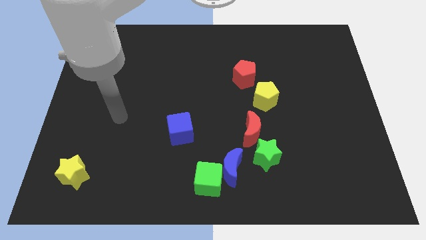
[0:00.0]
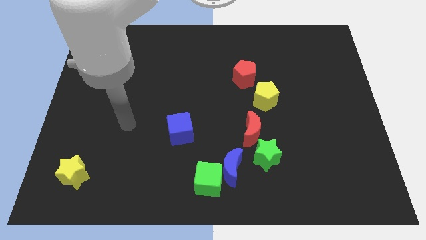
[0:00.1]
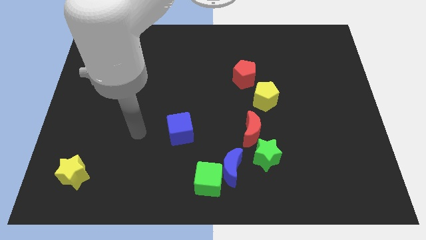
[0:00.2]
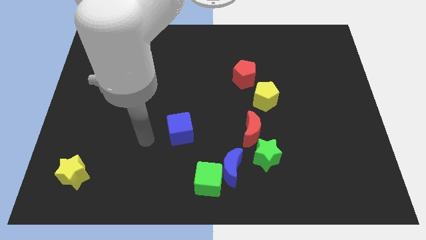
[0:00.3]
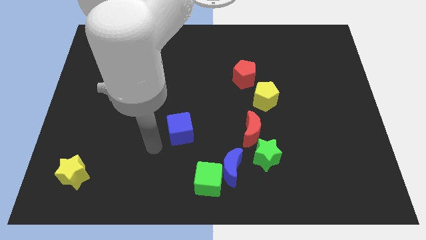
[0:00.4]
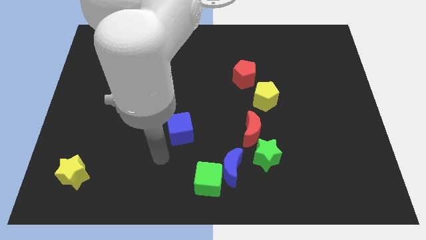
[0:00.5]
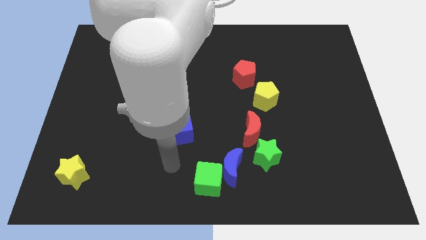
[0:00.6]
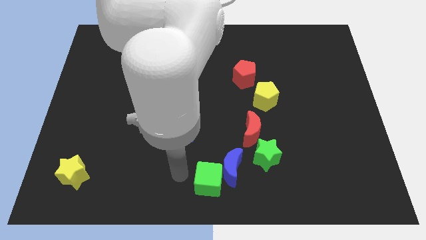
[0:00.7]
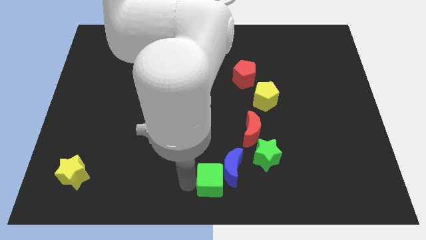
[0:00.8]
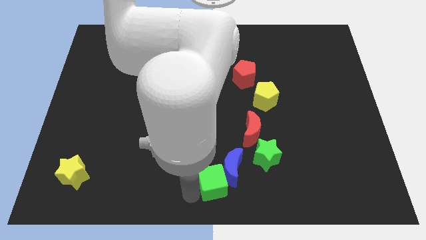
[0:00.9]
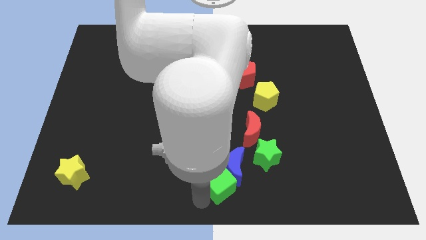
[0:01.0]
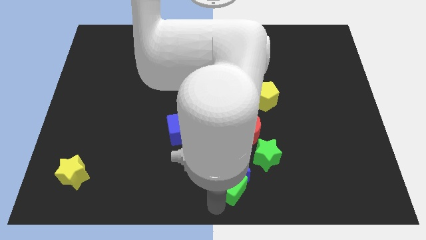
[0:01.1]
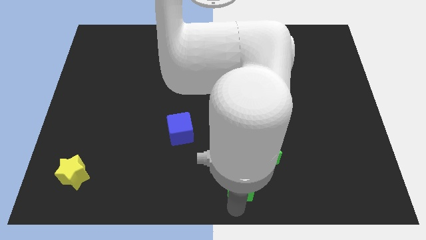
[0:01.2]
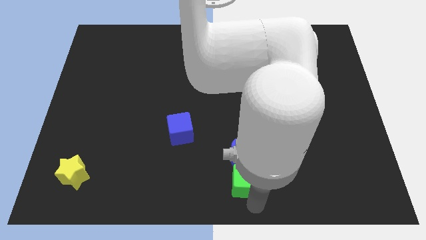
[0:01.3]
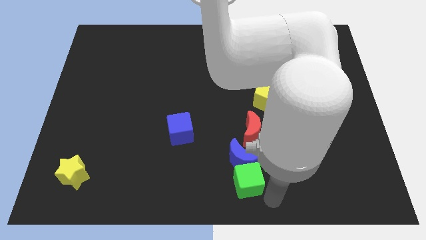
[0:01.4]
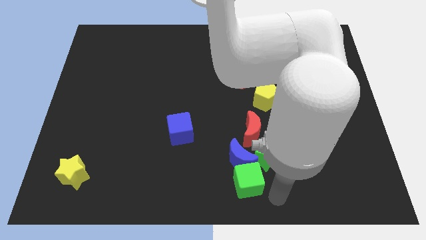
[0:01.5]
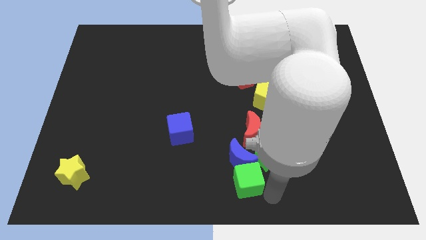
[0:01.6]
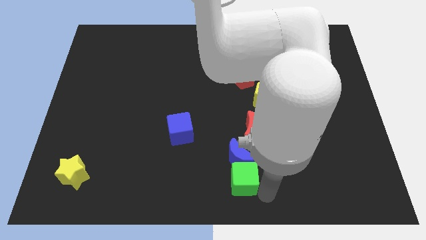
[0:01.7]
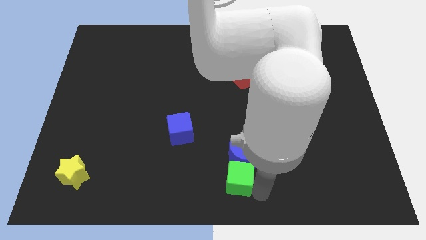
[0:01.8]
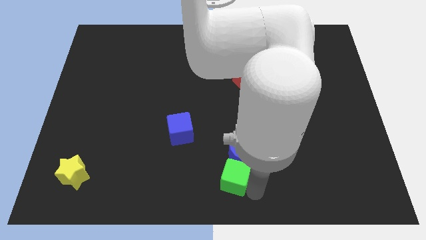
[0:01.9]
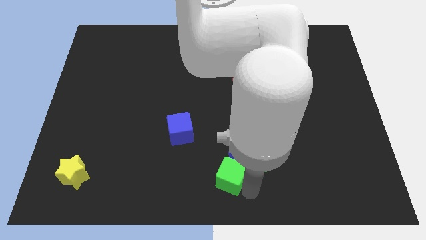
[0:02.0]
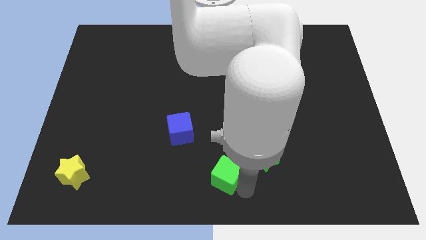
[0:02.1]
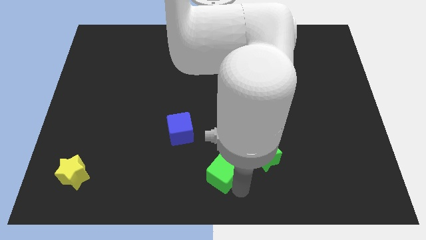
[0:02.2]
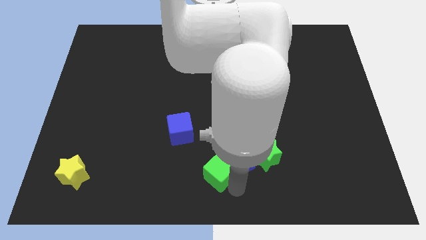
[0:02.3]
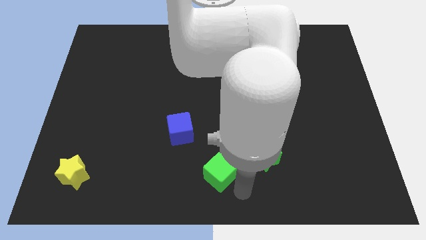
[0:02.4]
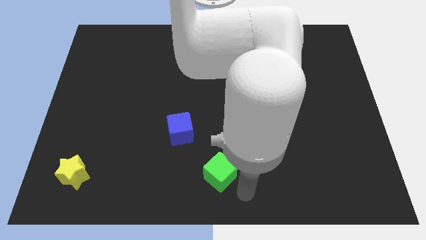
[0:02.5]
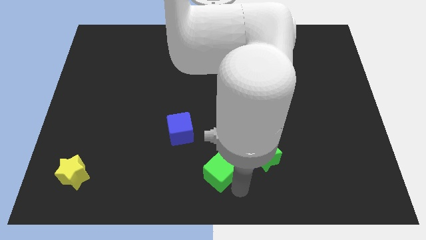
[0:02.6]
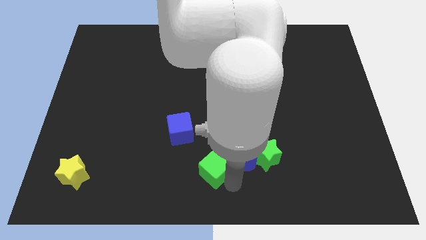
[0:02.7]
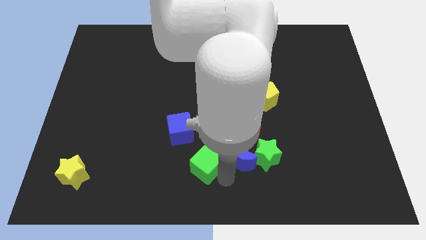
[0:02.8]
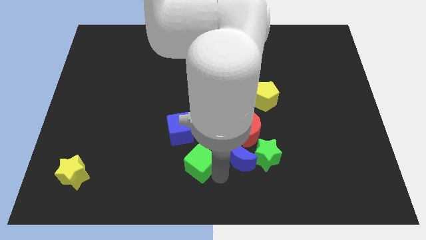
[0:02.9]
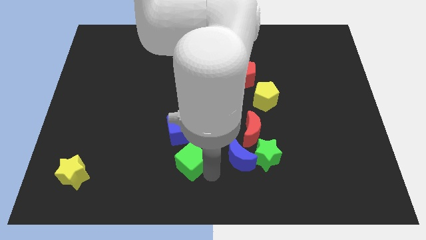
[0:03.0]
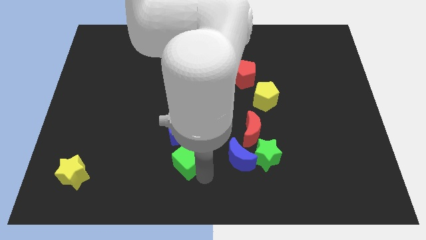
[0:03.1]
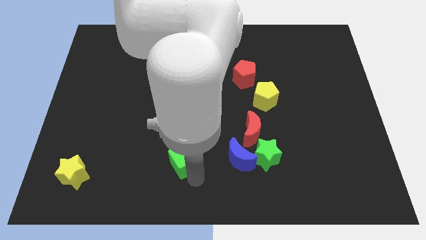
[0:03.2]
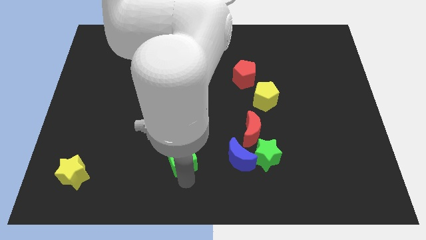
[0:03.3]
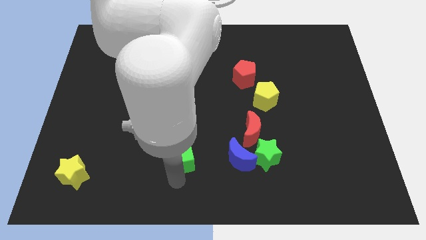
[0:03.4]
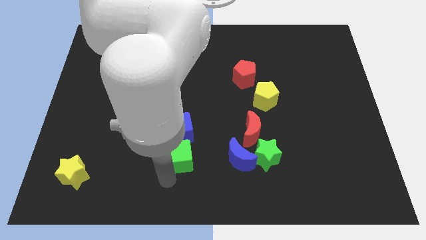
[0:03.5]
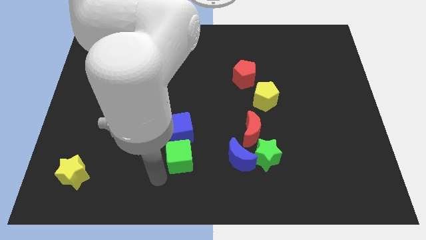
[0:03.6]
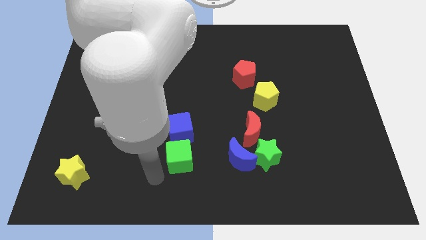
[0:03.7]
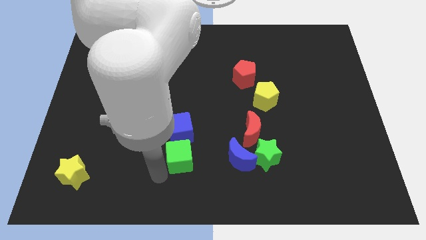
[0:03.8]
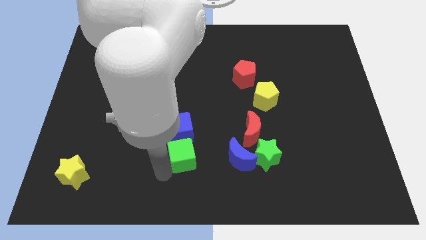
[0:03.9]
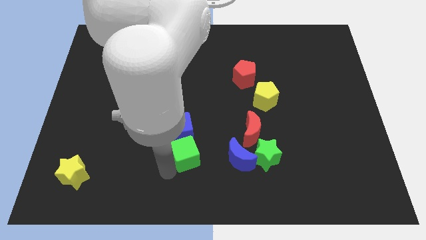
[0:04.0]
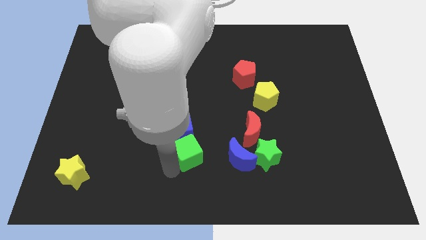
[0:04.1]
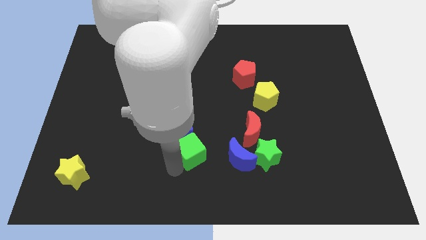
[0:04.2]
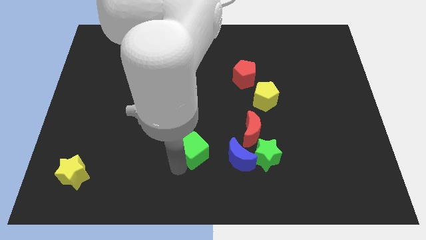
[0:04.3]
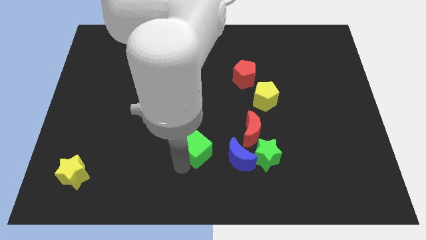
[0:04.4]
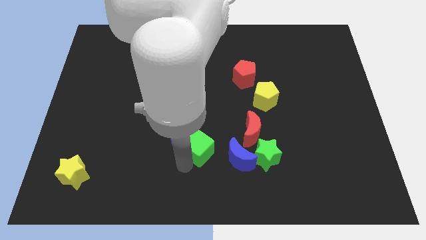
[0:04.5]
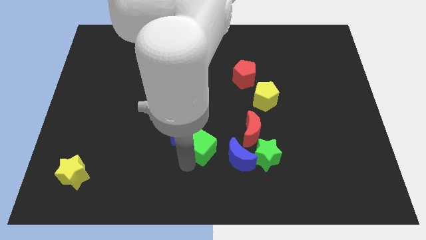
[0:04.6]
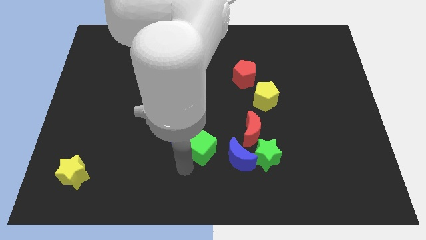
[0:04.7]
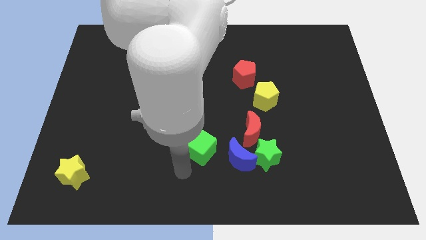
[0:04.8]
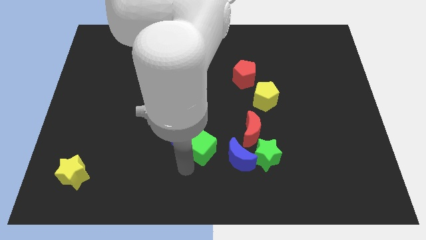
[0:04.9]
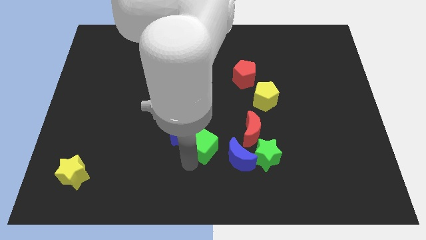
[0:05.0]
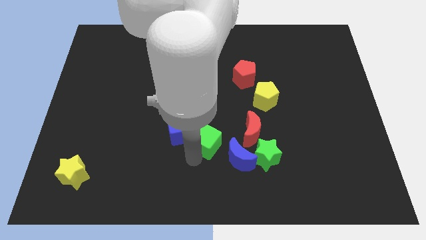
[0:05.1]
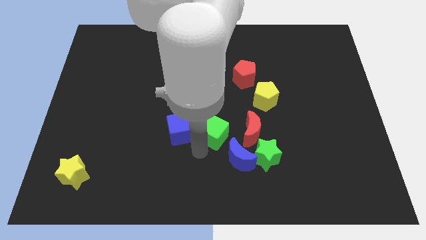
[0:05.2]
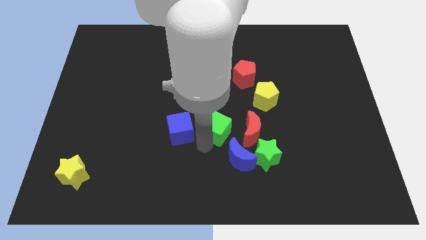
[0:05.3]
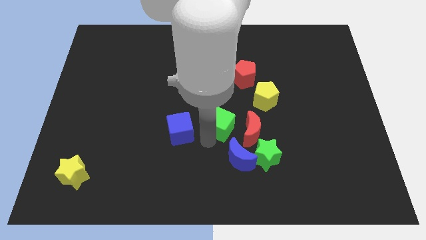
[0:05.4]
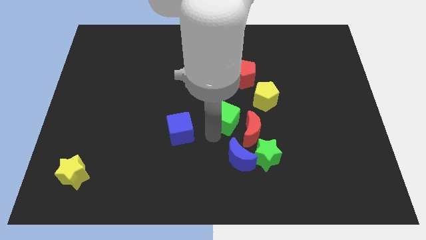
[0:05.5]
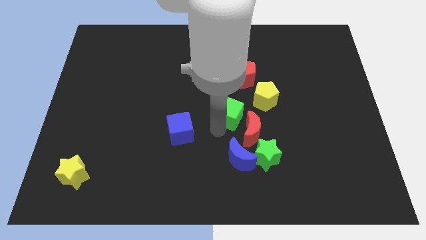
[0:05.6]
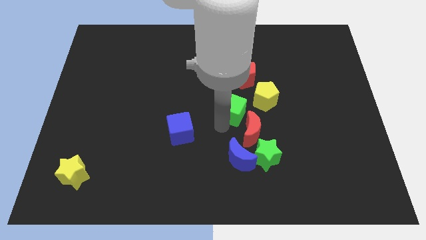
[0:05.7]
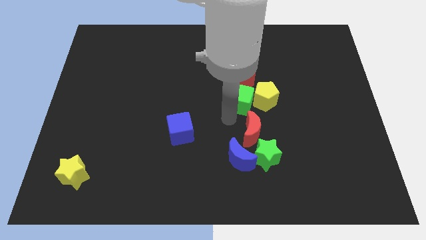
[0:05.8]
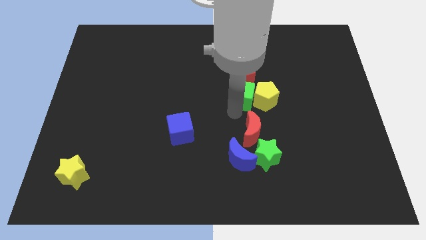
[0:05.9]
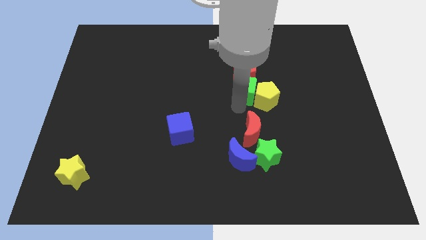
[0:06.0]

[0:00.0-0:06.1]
push the green cube towards the red pentagon

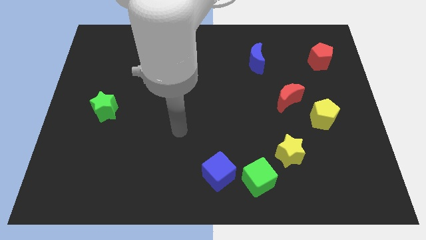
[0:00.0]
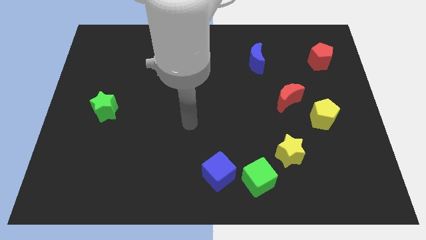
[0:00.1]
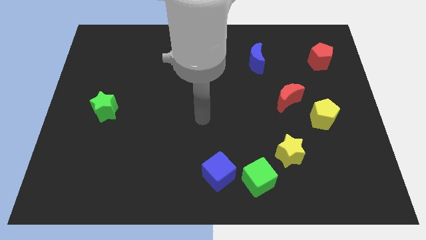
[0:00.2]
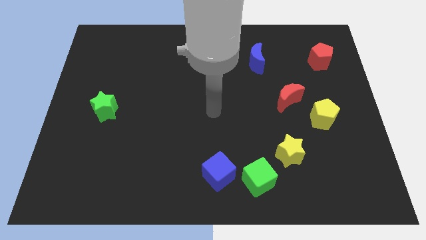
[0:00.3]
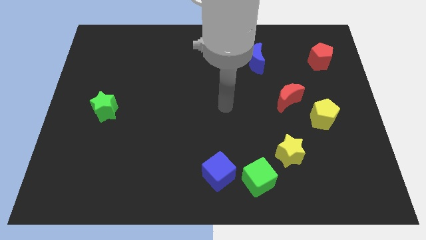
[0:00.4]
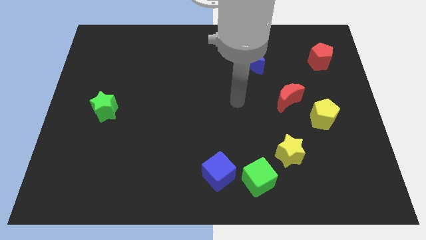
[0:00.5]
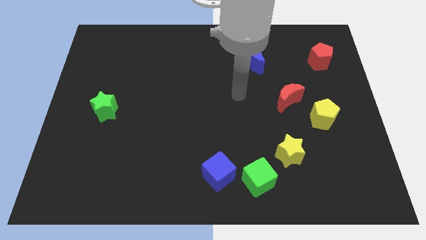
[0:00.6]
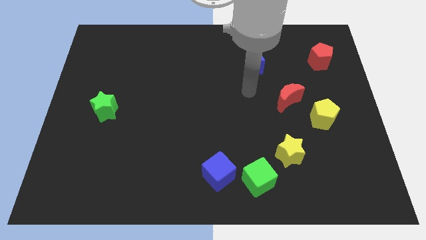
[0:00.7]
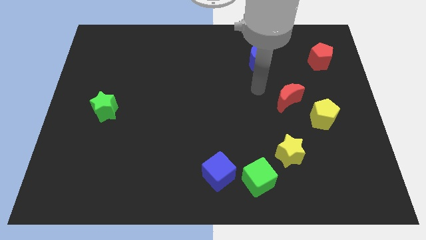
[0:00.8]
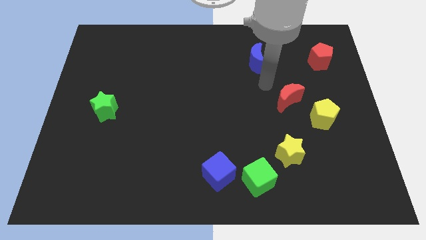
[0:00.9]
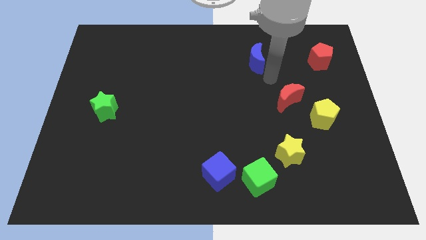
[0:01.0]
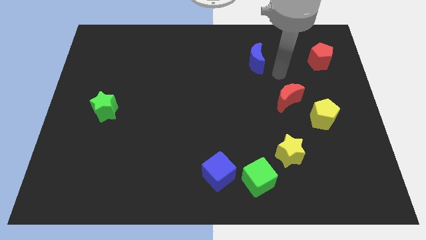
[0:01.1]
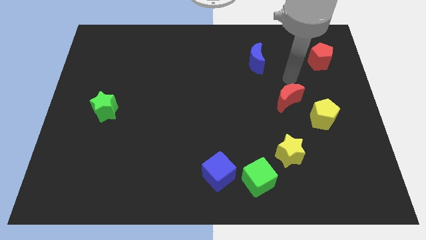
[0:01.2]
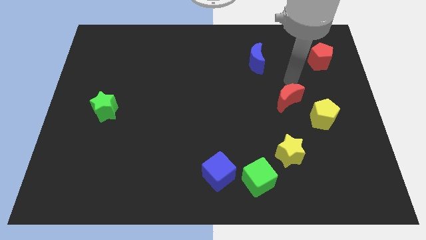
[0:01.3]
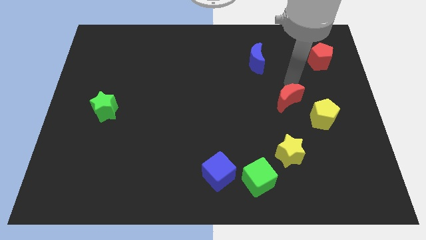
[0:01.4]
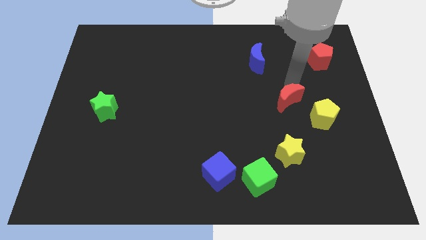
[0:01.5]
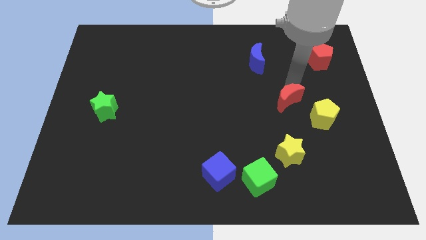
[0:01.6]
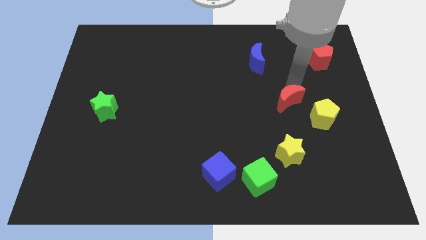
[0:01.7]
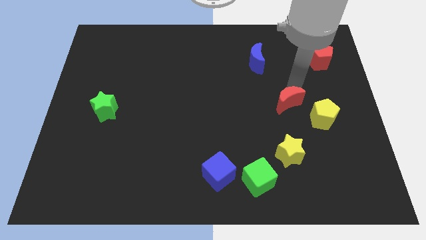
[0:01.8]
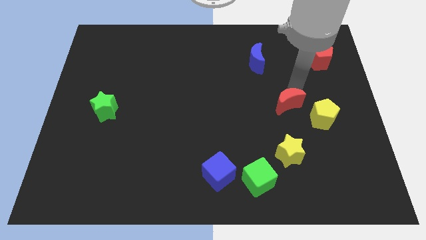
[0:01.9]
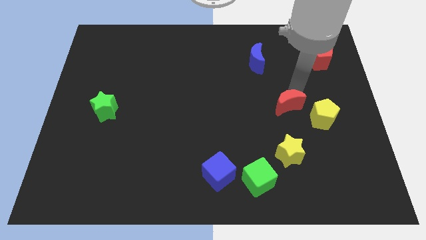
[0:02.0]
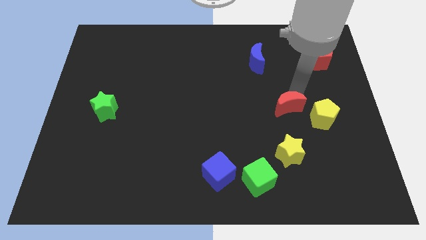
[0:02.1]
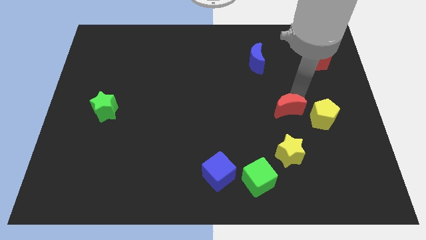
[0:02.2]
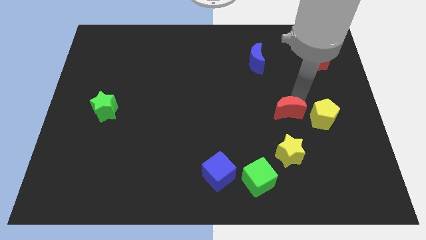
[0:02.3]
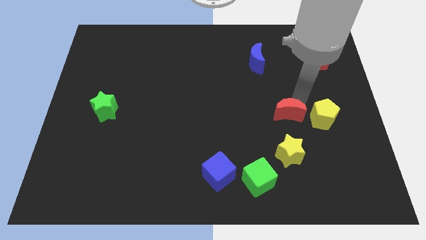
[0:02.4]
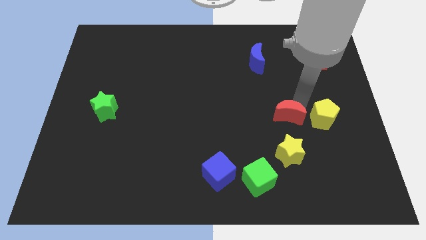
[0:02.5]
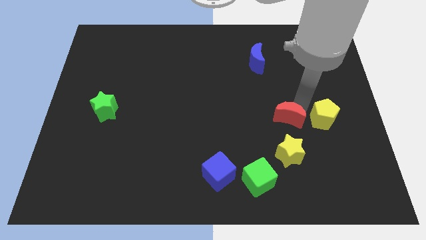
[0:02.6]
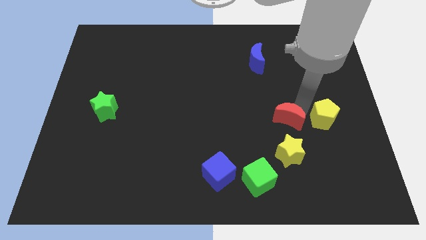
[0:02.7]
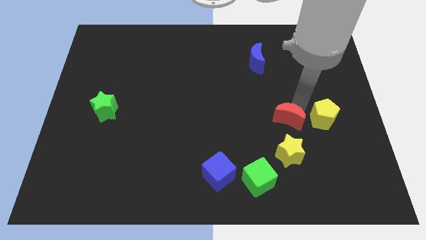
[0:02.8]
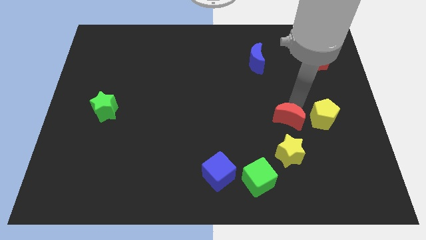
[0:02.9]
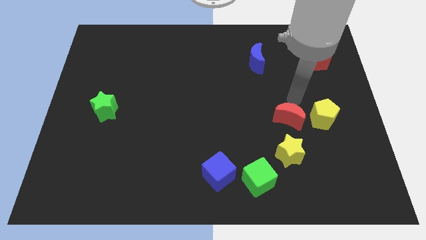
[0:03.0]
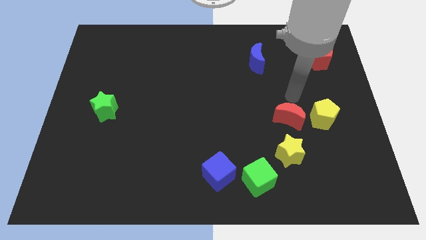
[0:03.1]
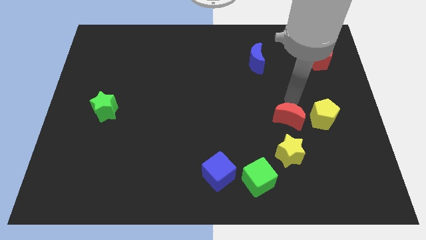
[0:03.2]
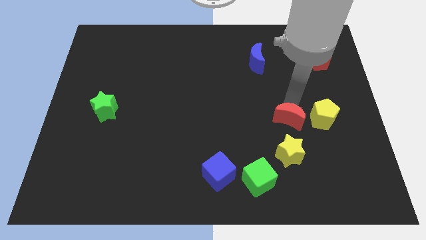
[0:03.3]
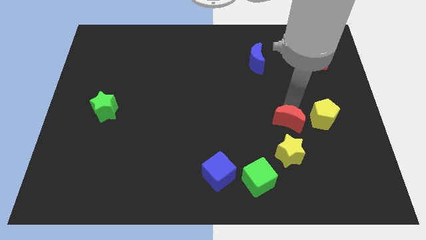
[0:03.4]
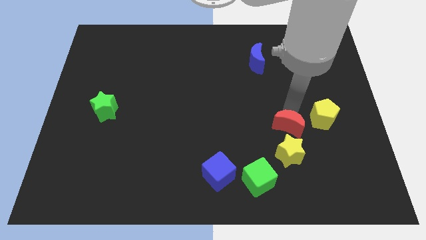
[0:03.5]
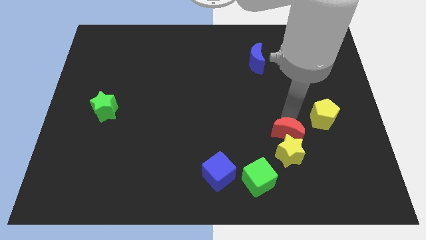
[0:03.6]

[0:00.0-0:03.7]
slide the red moon towards the yellow star
